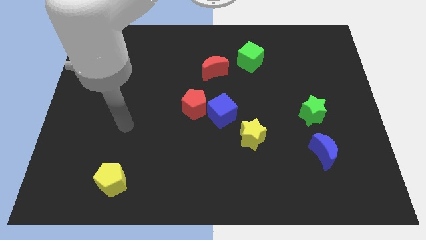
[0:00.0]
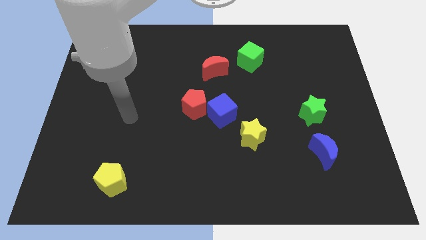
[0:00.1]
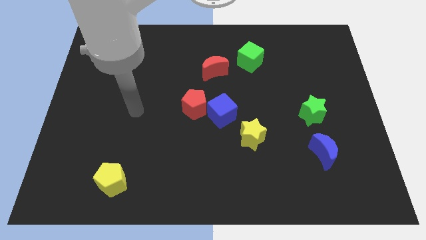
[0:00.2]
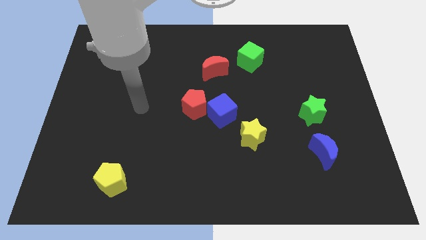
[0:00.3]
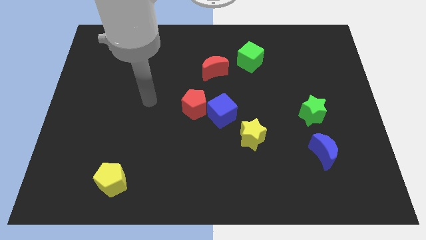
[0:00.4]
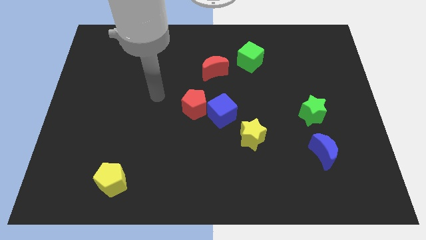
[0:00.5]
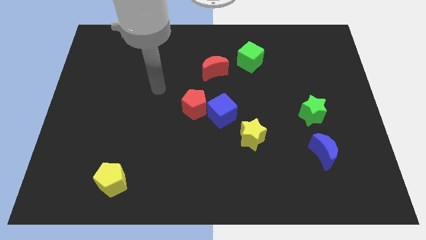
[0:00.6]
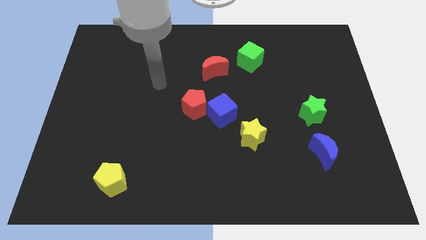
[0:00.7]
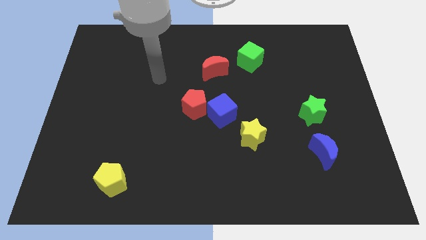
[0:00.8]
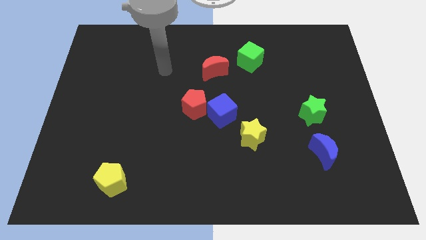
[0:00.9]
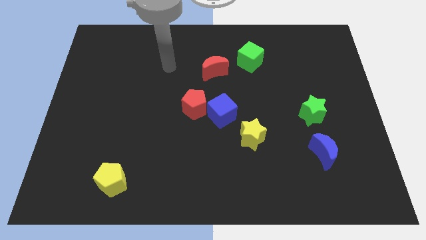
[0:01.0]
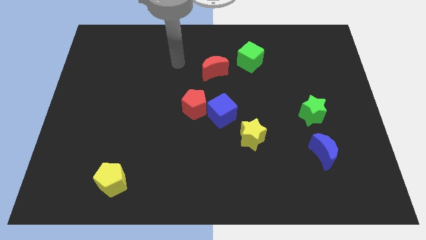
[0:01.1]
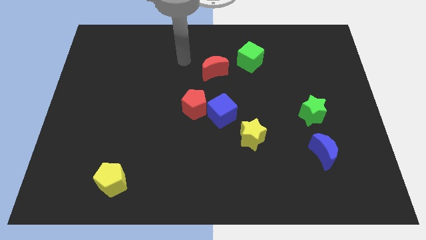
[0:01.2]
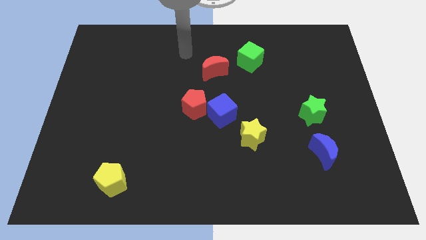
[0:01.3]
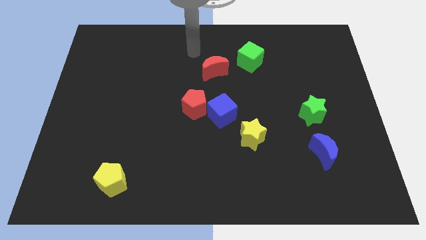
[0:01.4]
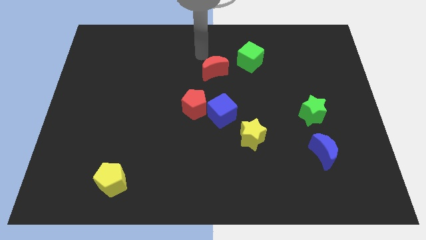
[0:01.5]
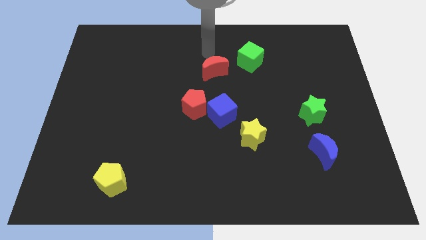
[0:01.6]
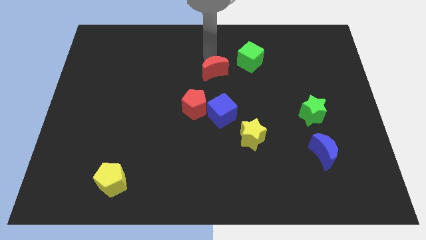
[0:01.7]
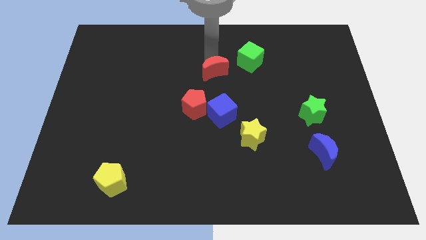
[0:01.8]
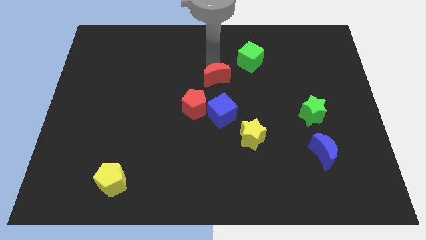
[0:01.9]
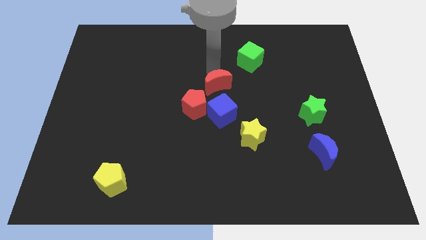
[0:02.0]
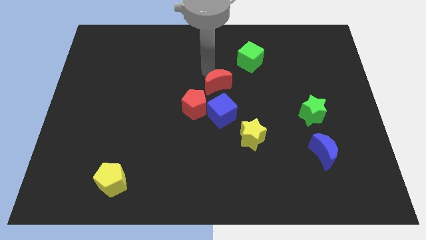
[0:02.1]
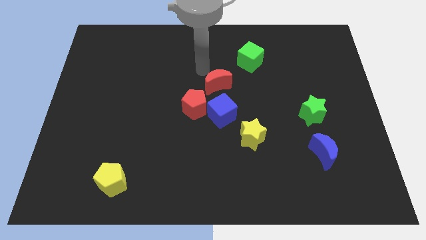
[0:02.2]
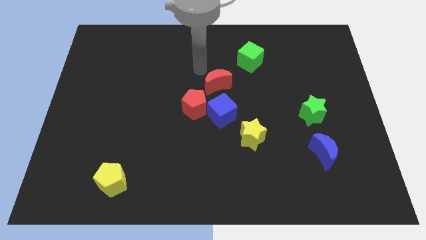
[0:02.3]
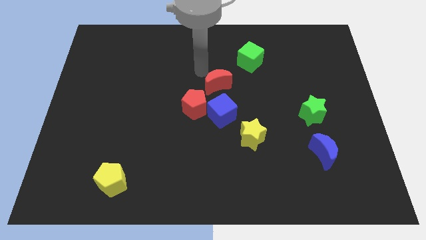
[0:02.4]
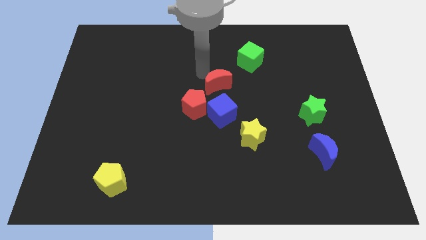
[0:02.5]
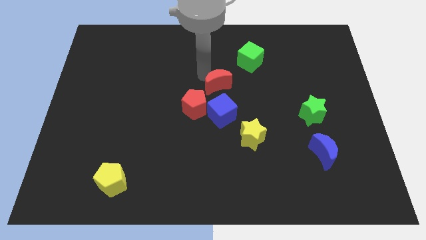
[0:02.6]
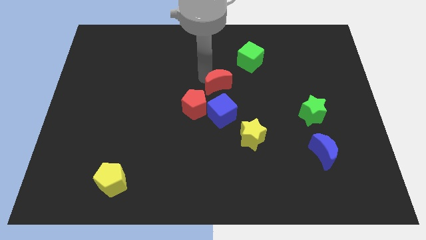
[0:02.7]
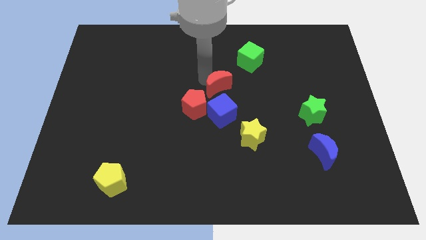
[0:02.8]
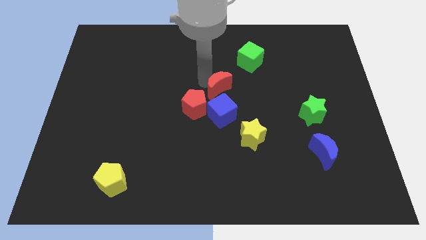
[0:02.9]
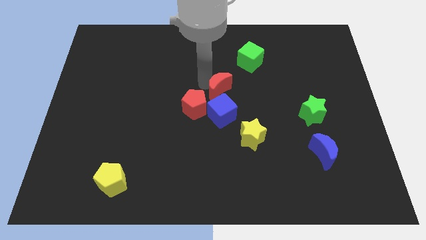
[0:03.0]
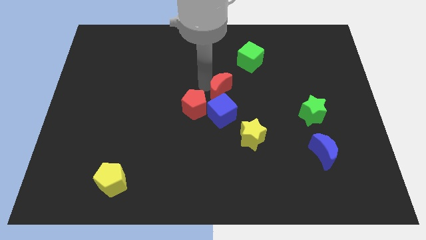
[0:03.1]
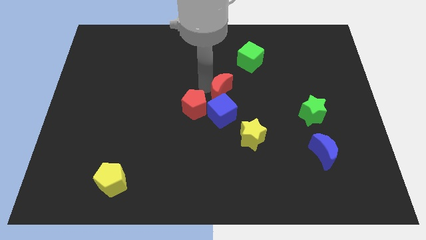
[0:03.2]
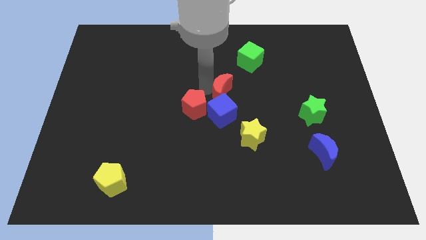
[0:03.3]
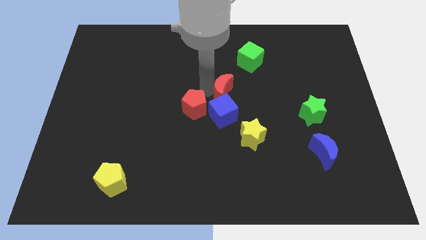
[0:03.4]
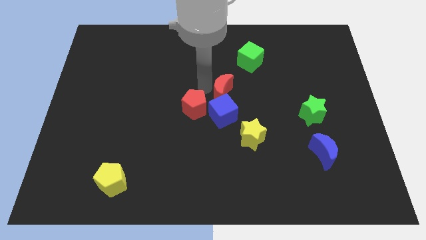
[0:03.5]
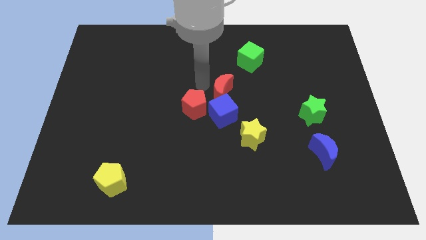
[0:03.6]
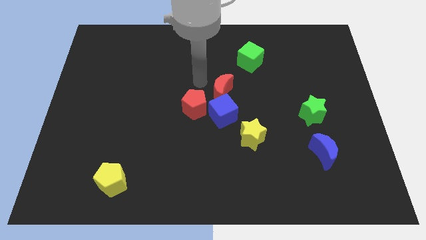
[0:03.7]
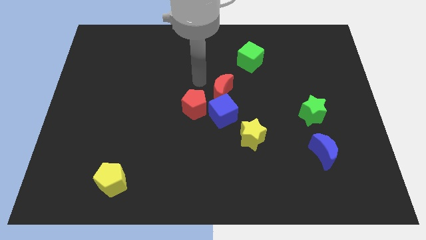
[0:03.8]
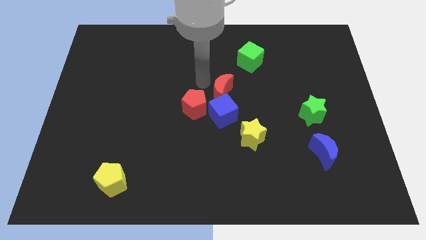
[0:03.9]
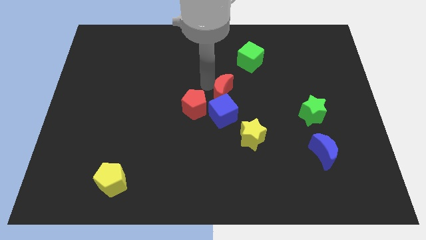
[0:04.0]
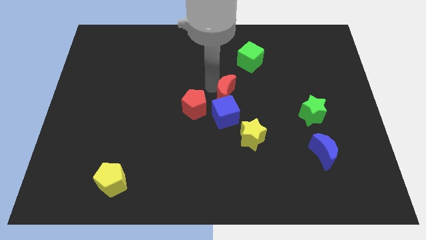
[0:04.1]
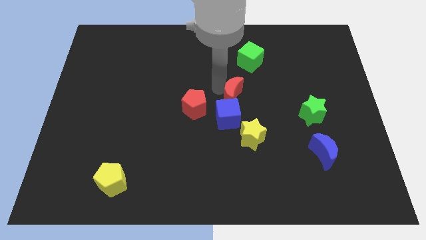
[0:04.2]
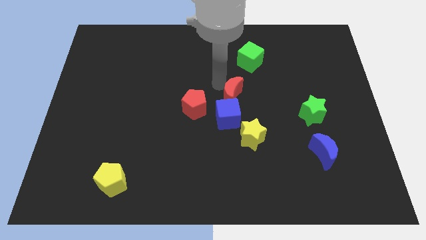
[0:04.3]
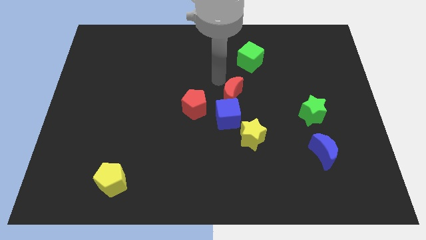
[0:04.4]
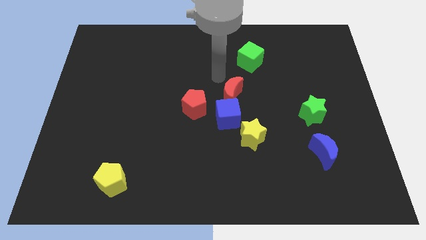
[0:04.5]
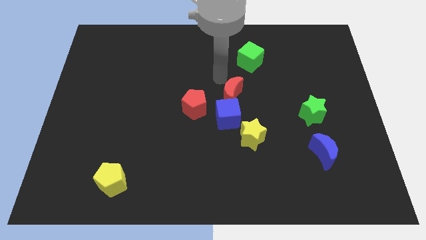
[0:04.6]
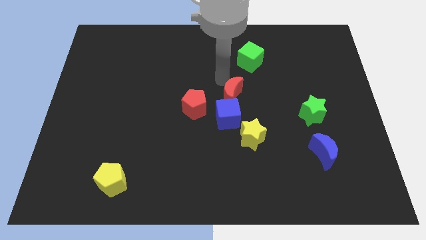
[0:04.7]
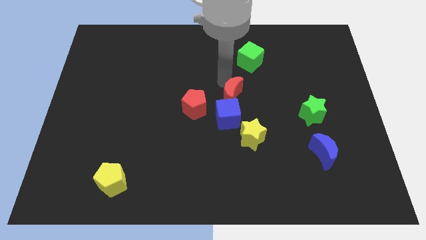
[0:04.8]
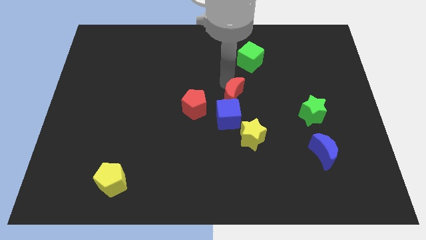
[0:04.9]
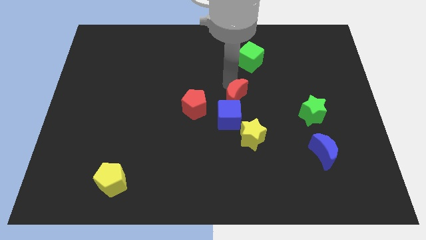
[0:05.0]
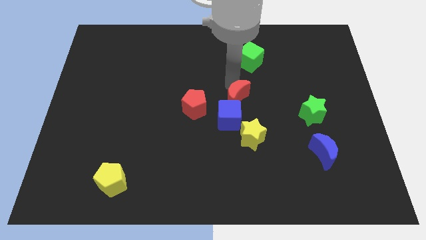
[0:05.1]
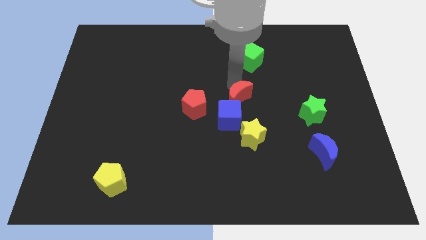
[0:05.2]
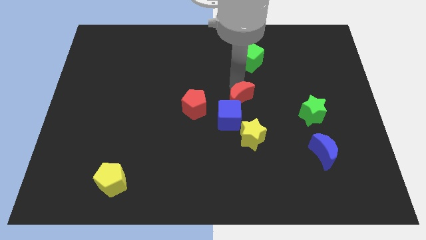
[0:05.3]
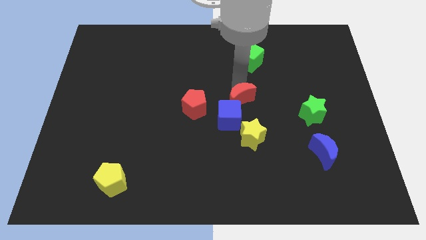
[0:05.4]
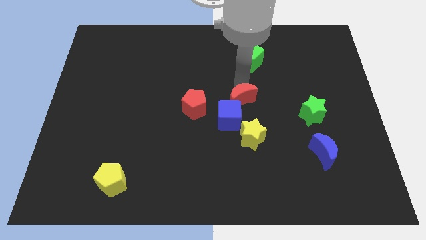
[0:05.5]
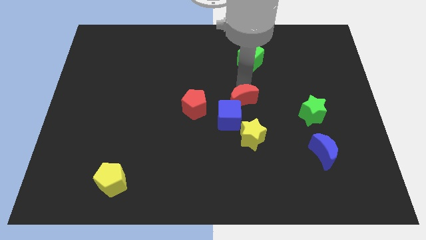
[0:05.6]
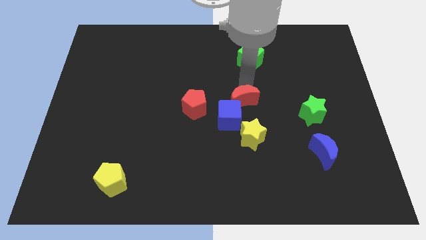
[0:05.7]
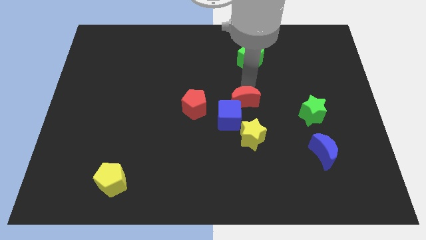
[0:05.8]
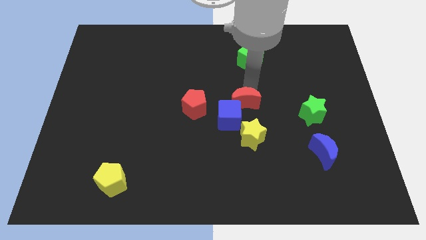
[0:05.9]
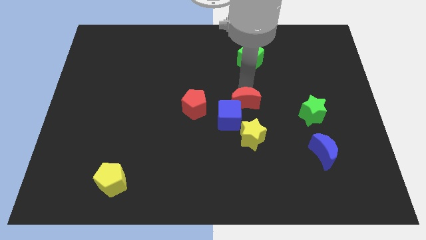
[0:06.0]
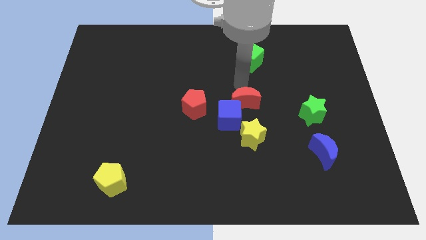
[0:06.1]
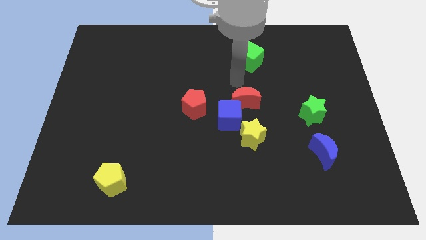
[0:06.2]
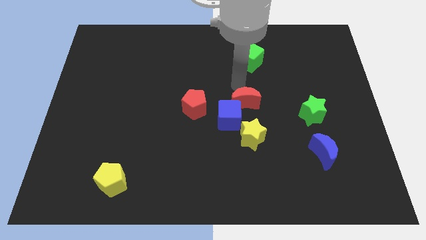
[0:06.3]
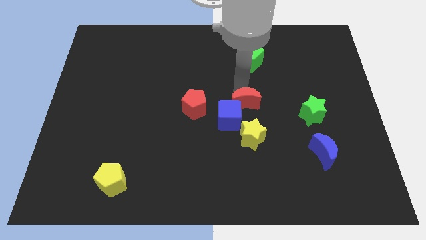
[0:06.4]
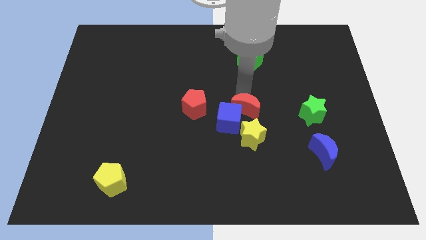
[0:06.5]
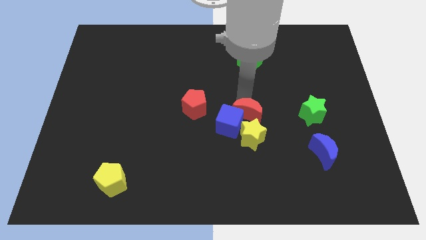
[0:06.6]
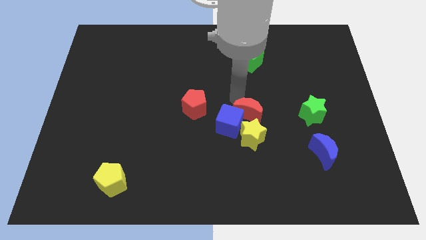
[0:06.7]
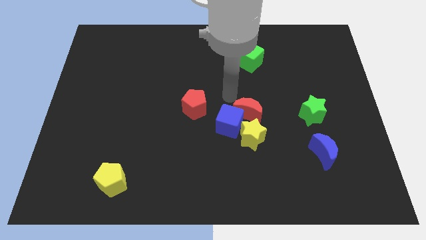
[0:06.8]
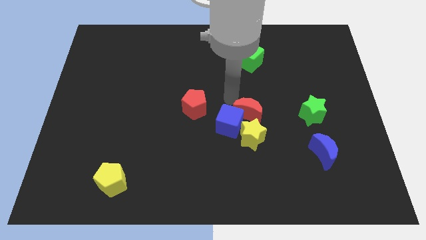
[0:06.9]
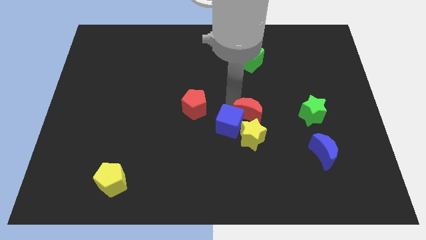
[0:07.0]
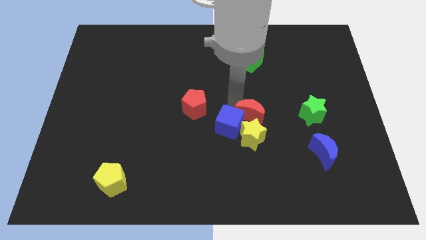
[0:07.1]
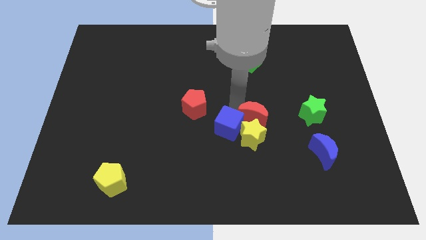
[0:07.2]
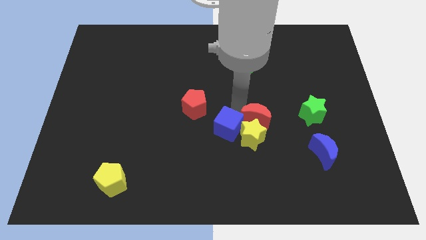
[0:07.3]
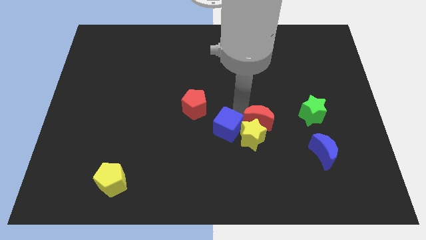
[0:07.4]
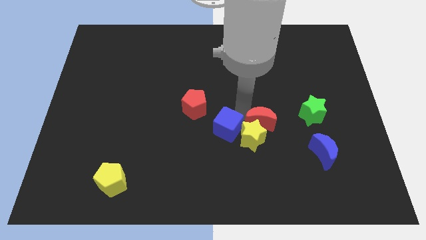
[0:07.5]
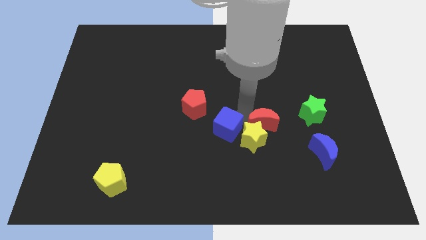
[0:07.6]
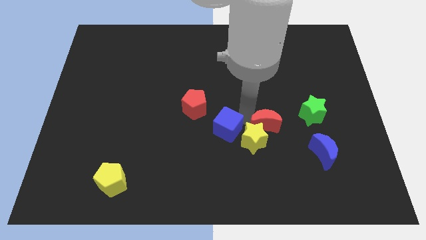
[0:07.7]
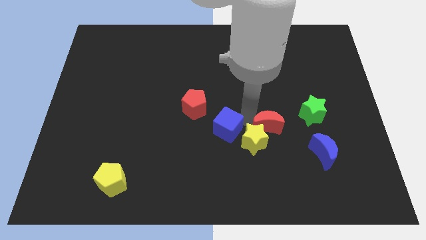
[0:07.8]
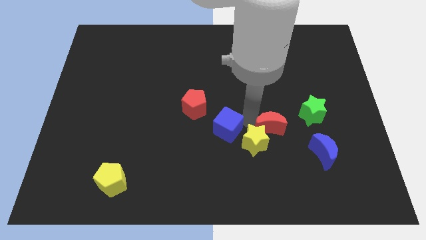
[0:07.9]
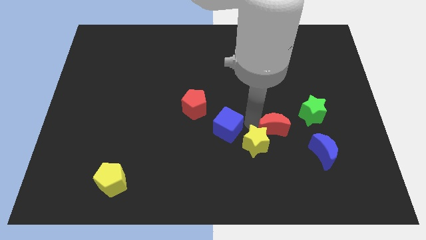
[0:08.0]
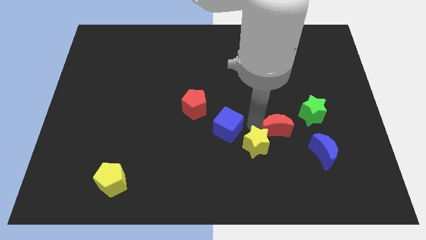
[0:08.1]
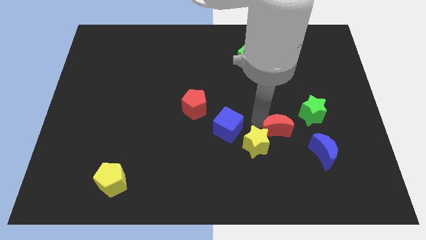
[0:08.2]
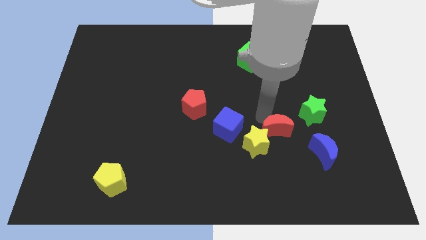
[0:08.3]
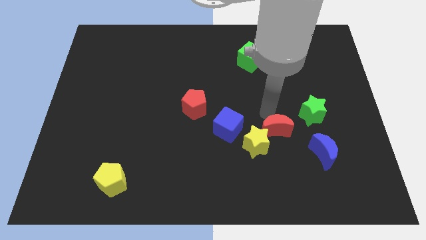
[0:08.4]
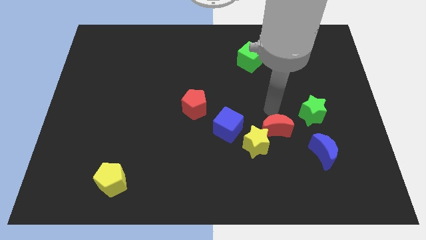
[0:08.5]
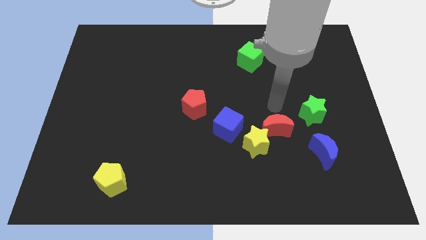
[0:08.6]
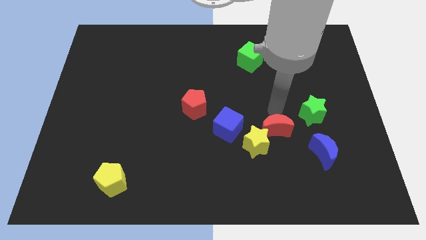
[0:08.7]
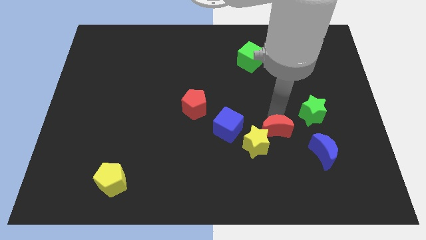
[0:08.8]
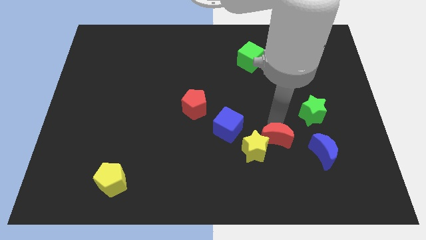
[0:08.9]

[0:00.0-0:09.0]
put the red moon left of the blue moon
